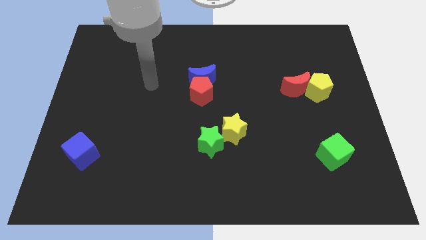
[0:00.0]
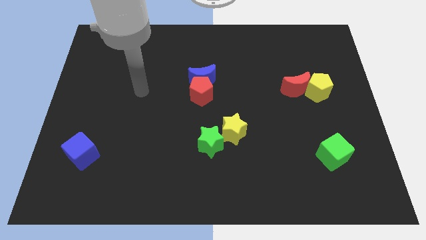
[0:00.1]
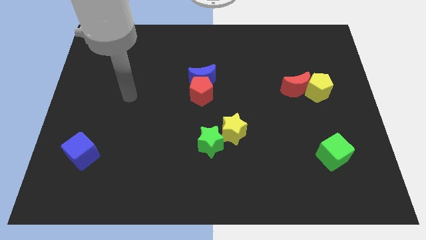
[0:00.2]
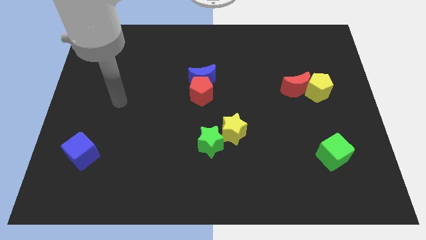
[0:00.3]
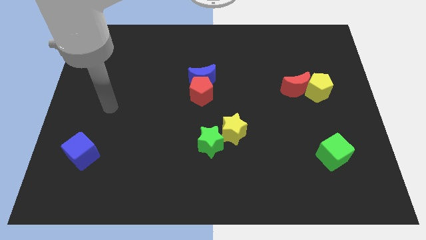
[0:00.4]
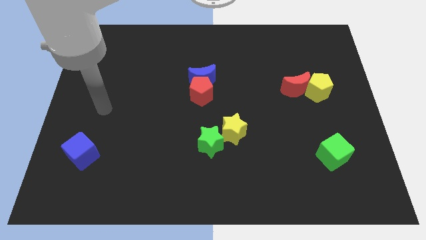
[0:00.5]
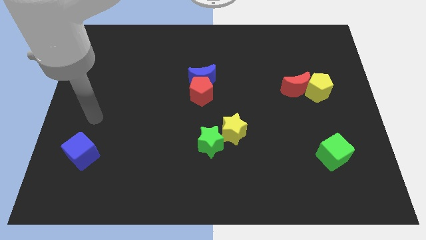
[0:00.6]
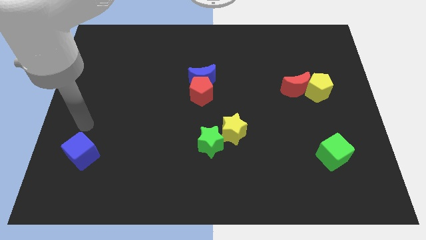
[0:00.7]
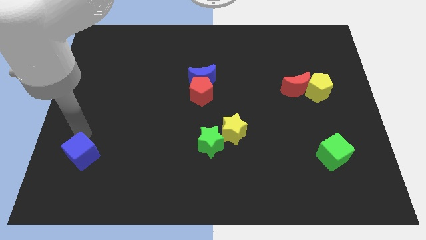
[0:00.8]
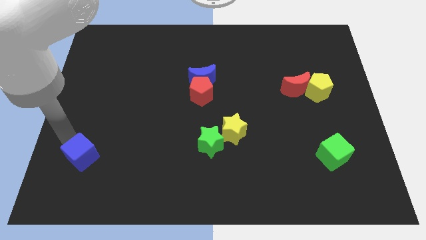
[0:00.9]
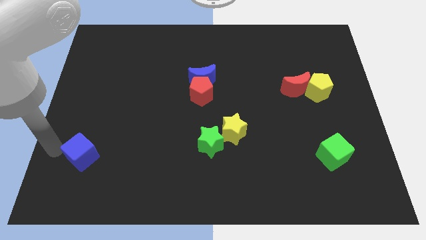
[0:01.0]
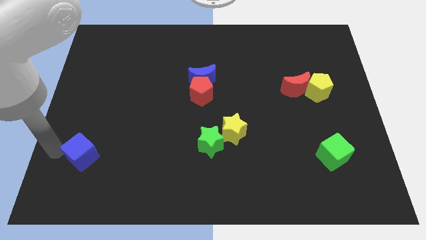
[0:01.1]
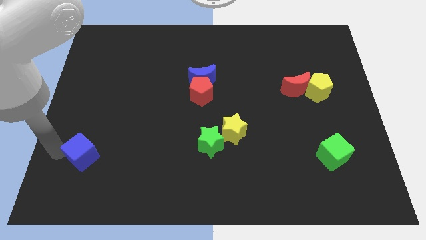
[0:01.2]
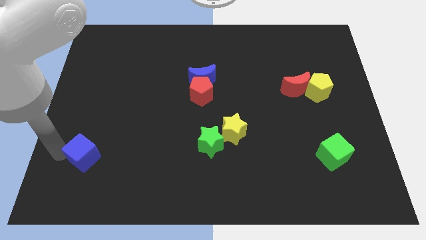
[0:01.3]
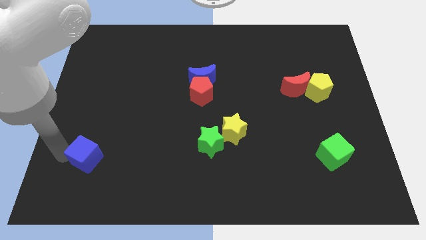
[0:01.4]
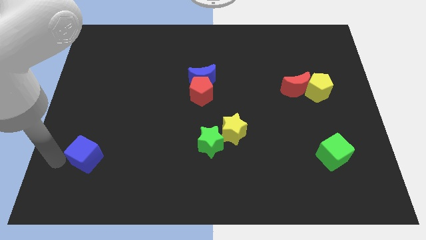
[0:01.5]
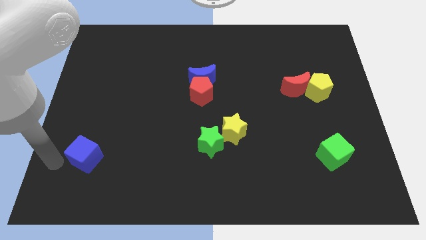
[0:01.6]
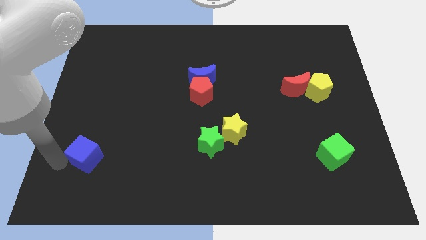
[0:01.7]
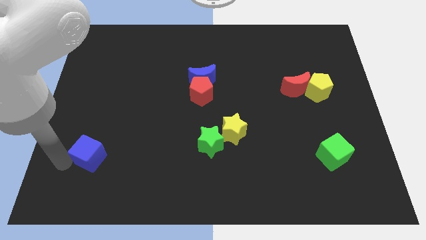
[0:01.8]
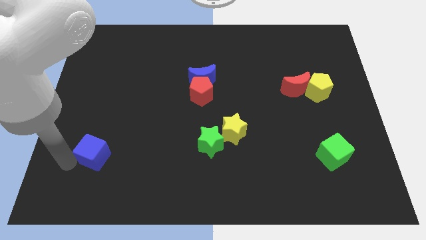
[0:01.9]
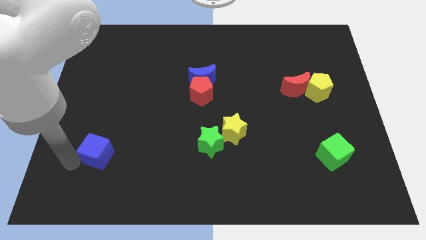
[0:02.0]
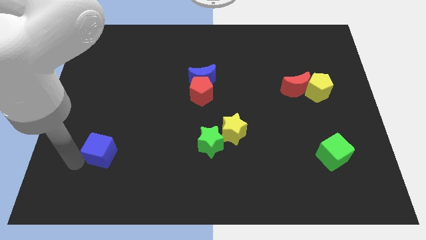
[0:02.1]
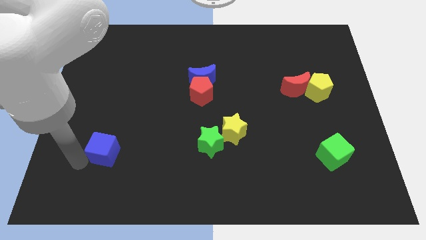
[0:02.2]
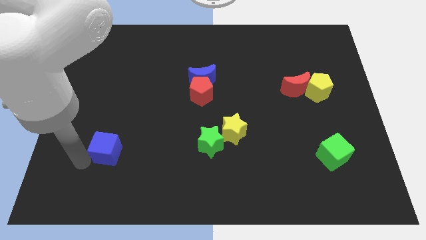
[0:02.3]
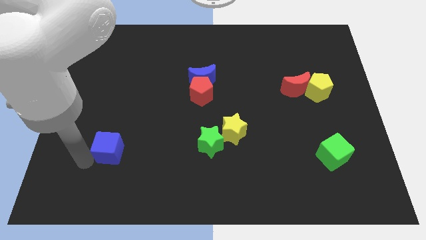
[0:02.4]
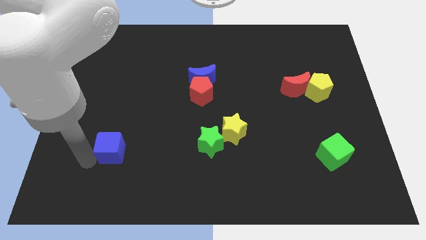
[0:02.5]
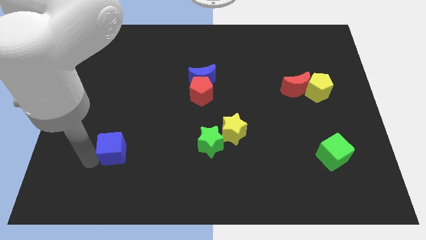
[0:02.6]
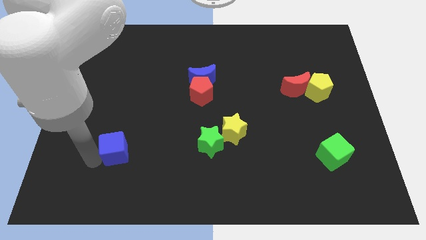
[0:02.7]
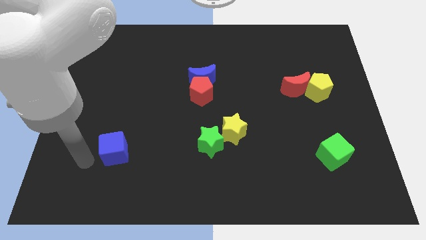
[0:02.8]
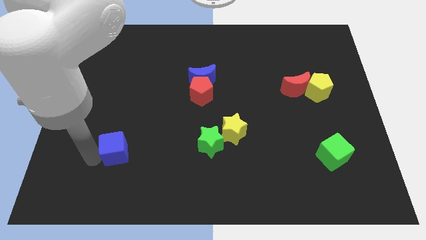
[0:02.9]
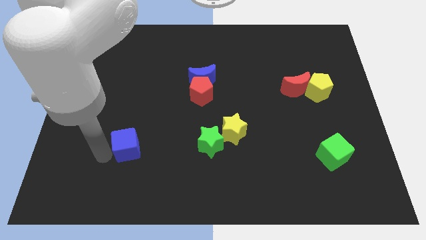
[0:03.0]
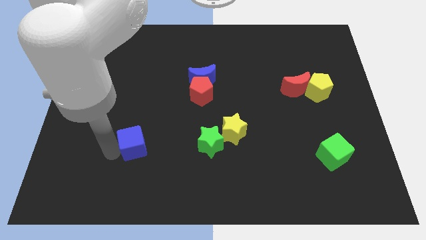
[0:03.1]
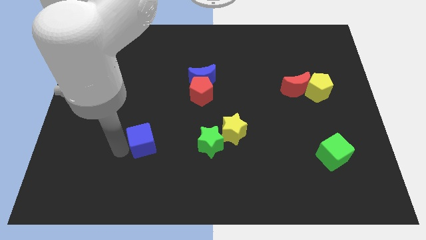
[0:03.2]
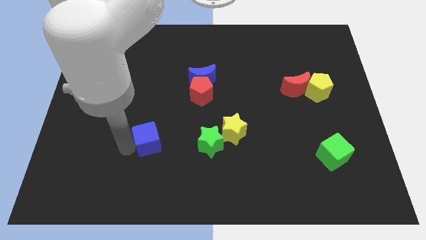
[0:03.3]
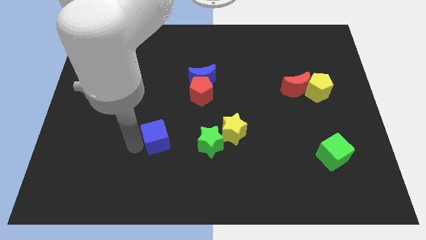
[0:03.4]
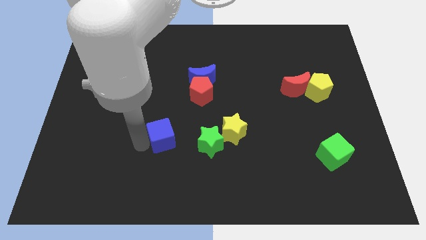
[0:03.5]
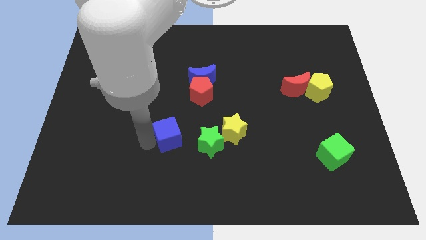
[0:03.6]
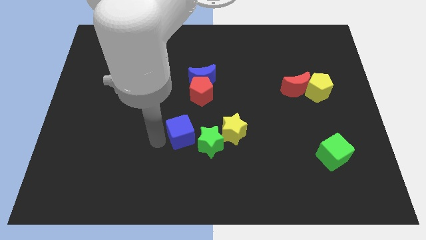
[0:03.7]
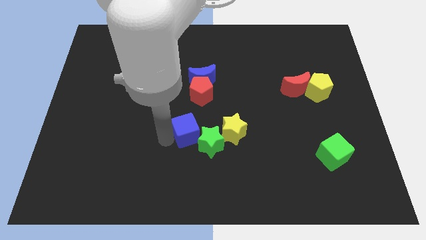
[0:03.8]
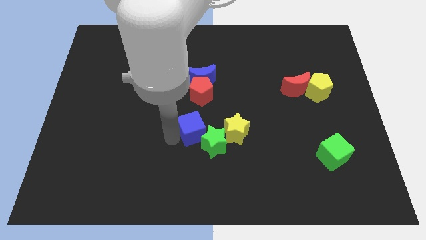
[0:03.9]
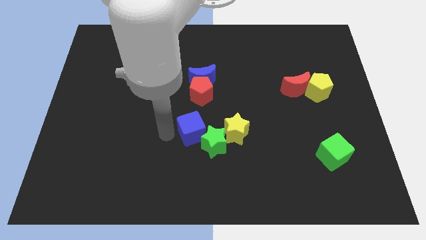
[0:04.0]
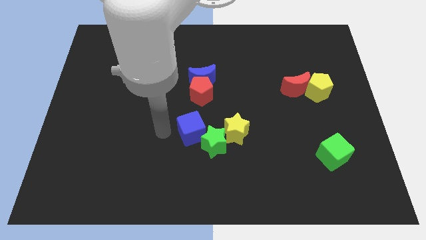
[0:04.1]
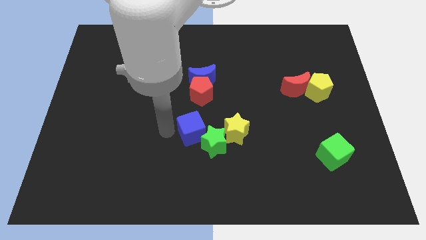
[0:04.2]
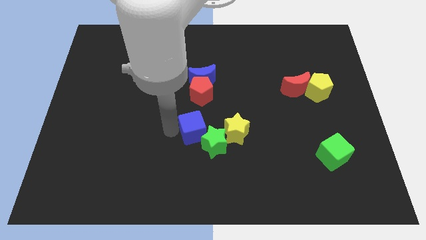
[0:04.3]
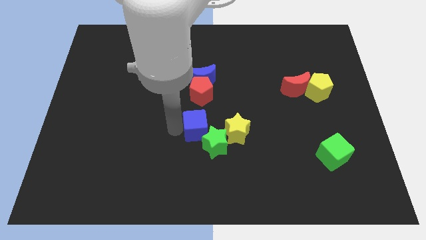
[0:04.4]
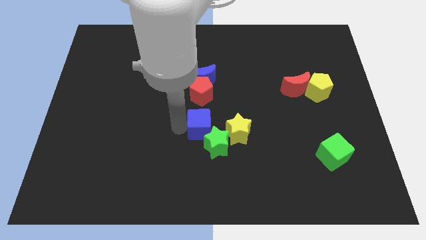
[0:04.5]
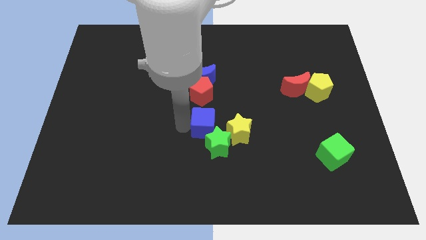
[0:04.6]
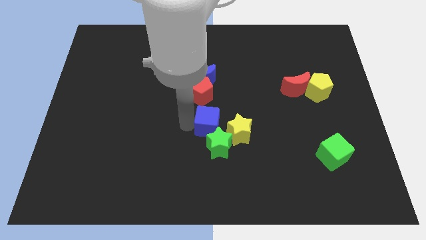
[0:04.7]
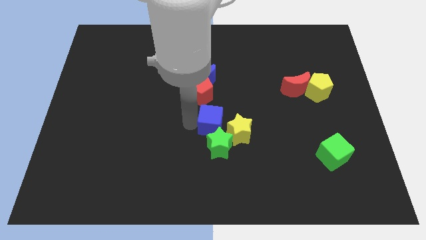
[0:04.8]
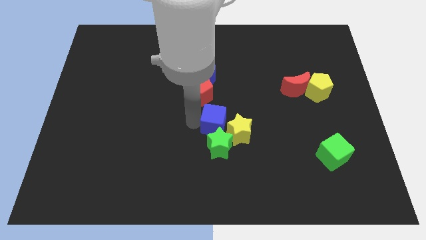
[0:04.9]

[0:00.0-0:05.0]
push the blue cube next to the yellow star

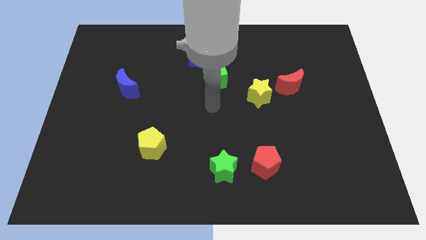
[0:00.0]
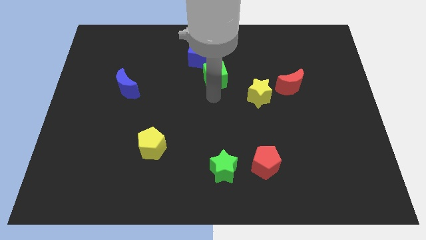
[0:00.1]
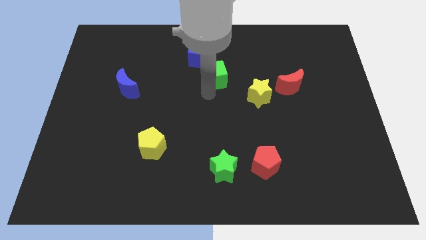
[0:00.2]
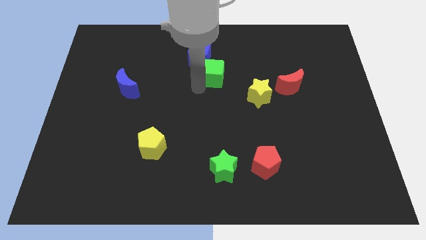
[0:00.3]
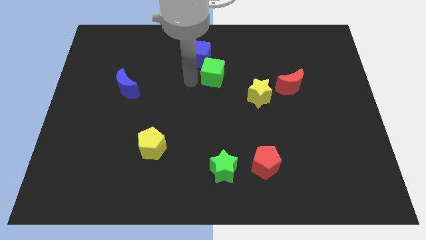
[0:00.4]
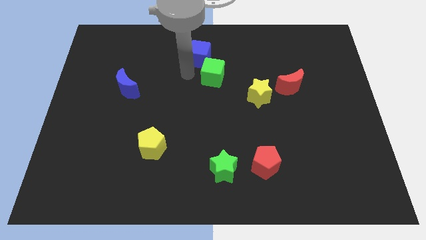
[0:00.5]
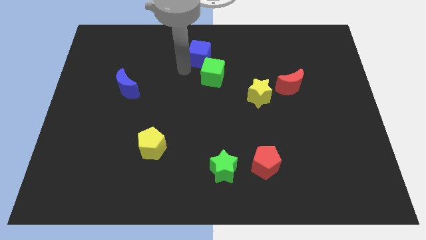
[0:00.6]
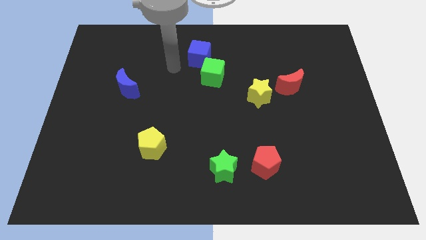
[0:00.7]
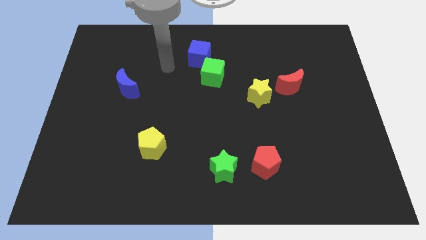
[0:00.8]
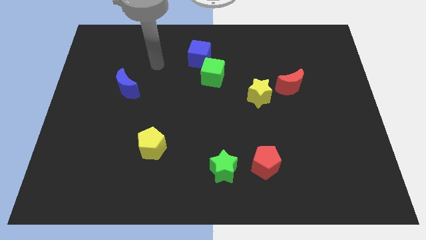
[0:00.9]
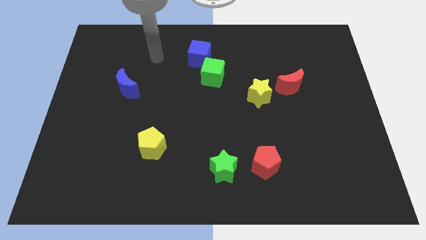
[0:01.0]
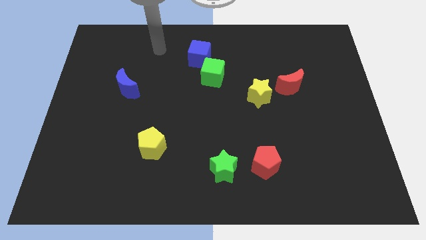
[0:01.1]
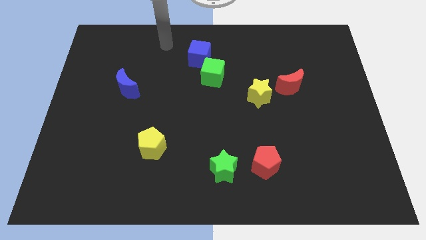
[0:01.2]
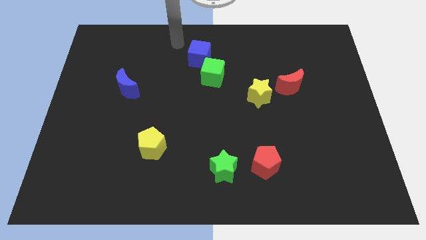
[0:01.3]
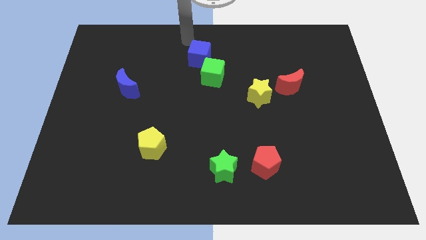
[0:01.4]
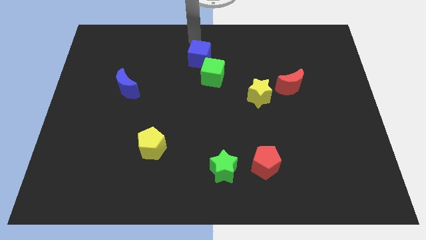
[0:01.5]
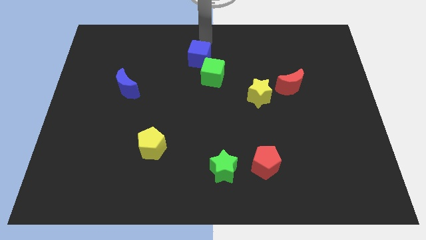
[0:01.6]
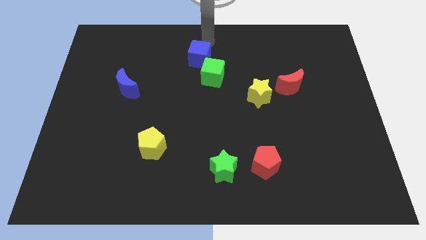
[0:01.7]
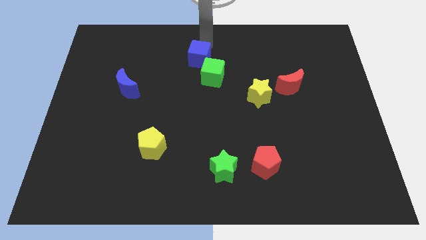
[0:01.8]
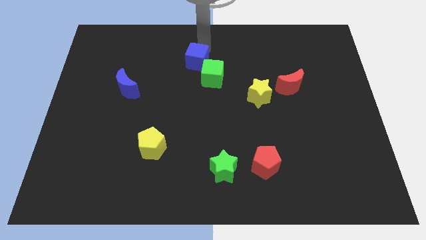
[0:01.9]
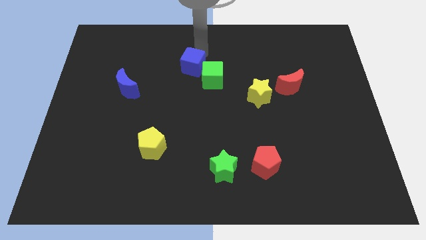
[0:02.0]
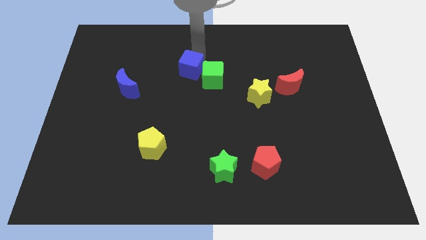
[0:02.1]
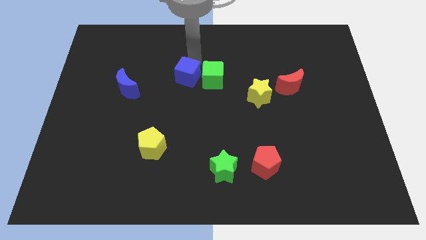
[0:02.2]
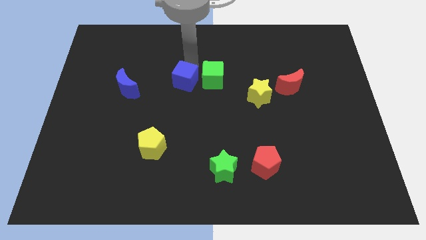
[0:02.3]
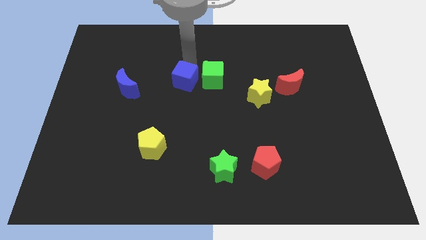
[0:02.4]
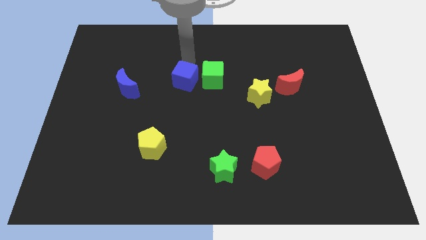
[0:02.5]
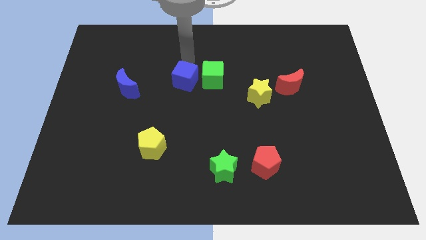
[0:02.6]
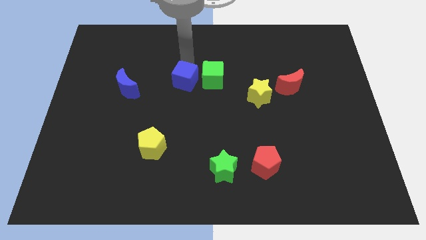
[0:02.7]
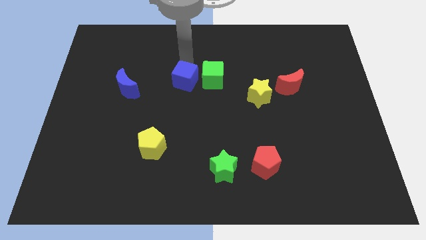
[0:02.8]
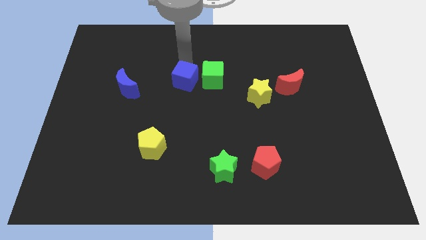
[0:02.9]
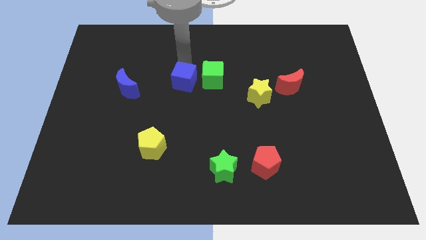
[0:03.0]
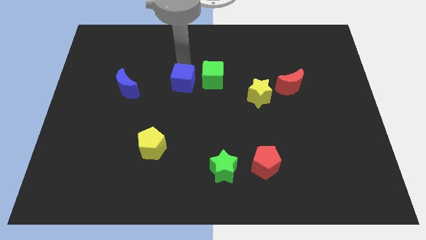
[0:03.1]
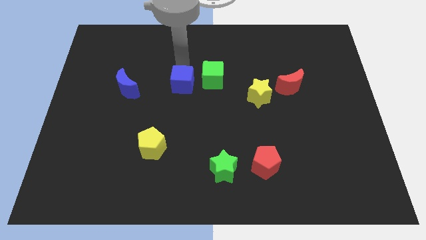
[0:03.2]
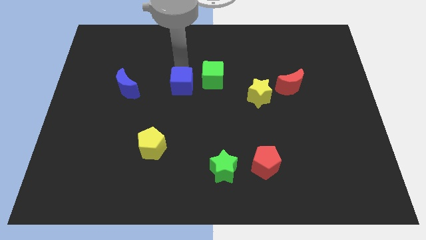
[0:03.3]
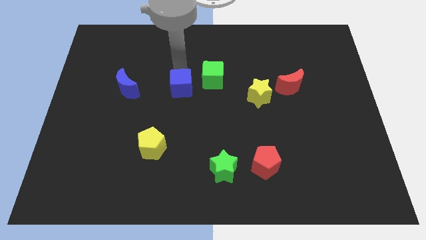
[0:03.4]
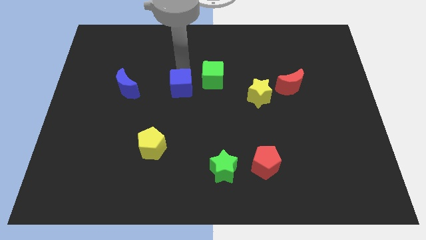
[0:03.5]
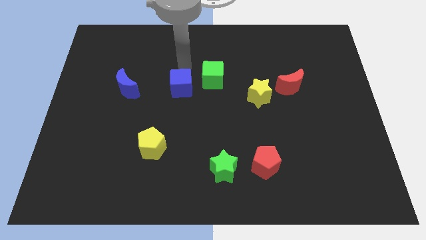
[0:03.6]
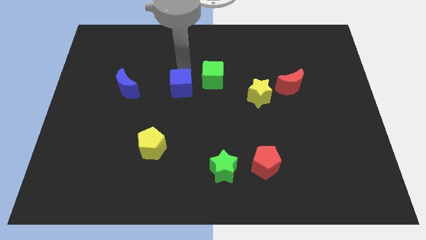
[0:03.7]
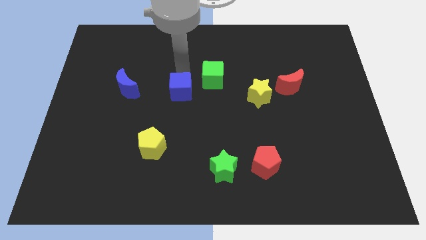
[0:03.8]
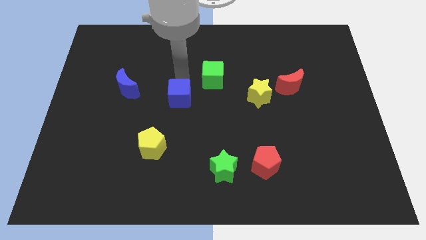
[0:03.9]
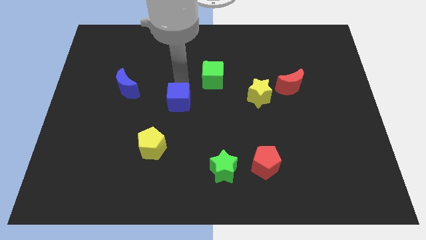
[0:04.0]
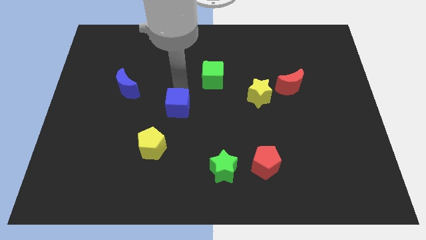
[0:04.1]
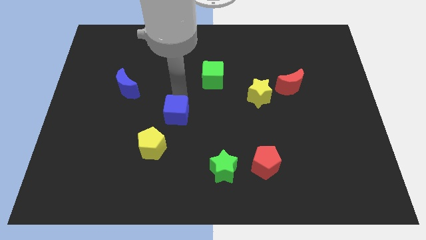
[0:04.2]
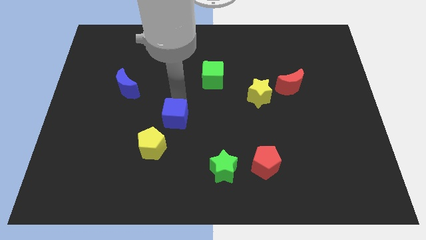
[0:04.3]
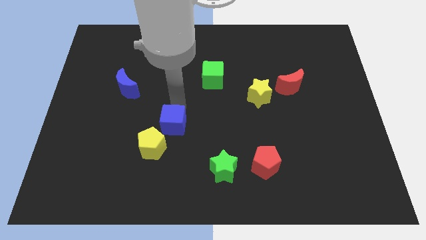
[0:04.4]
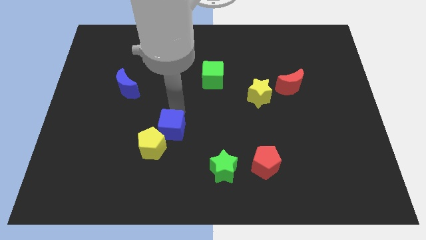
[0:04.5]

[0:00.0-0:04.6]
push the blue cube close to the yellow pentagon
